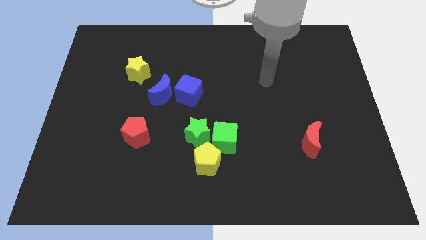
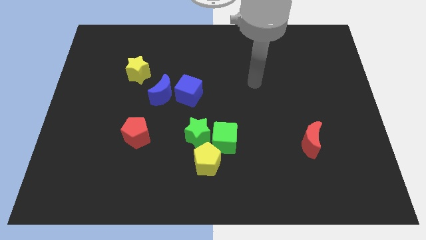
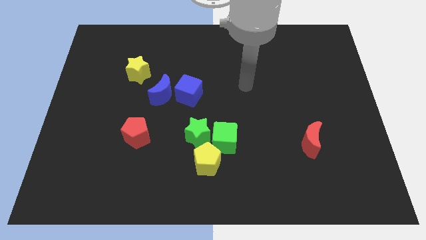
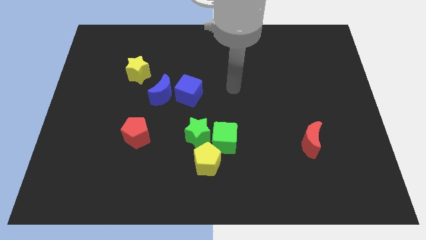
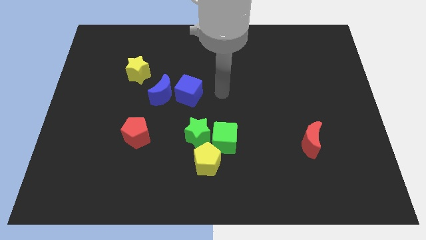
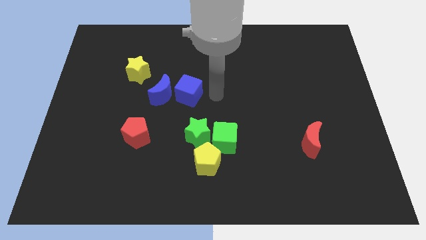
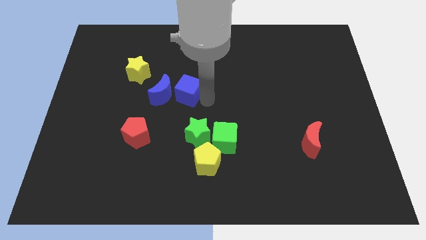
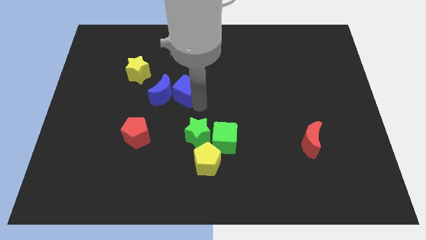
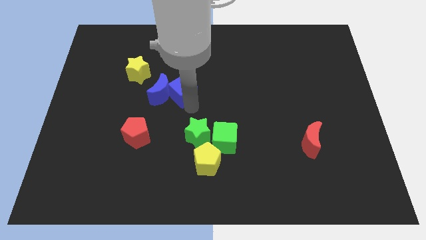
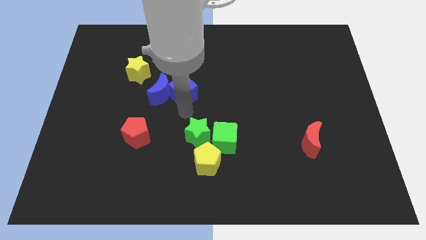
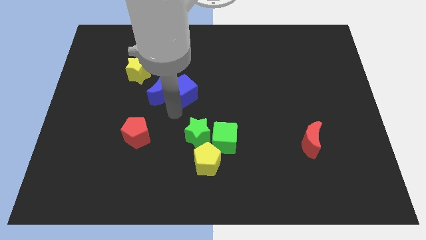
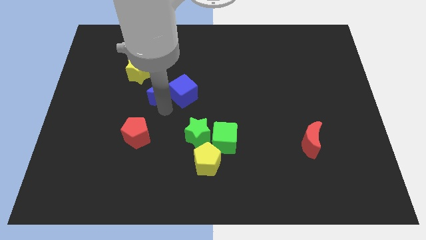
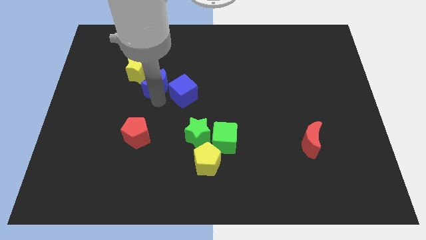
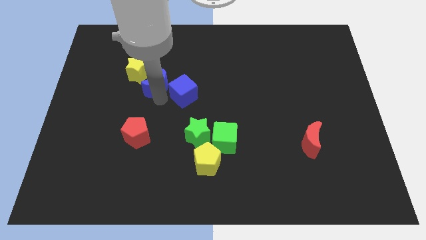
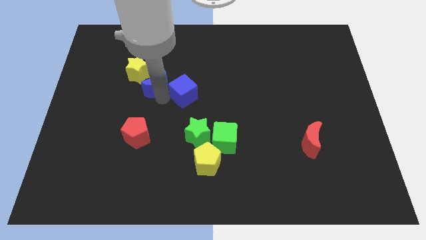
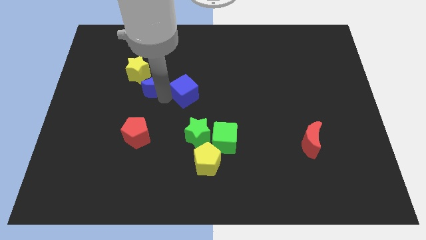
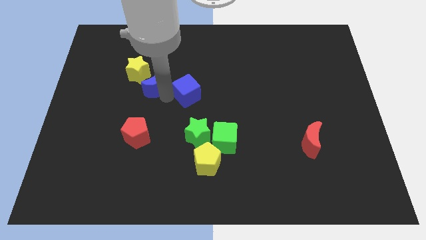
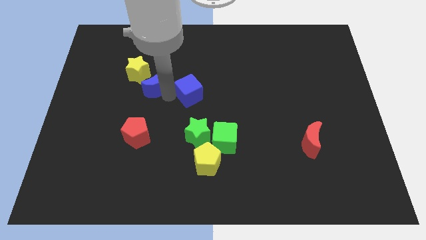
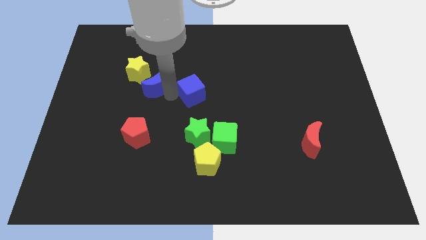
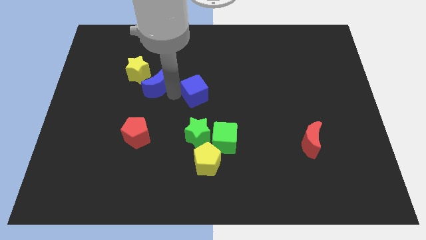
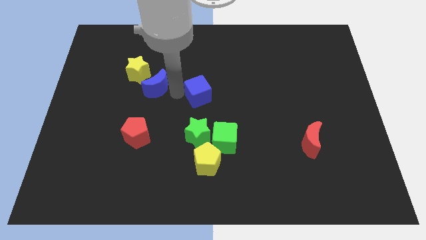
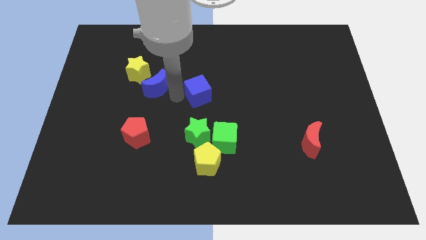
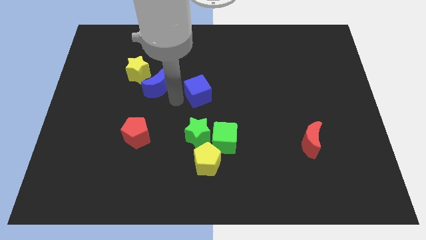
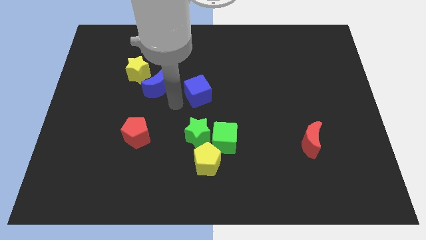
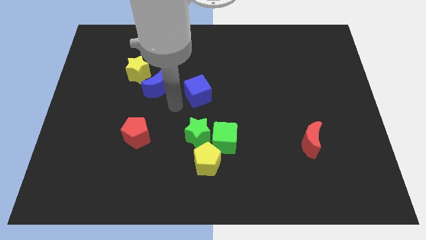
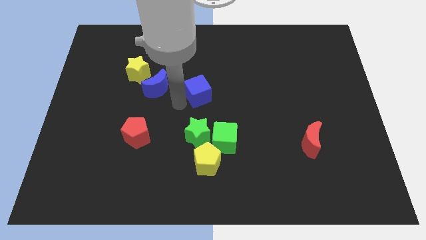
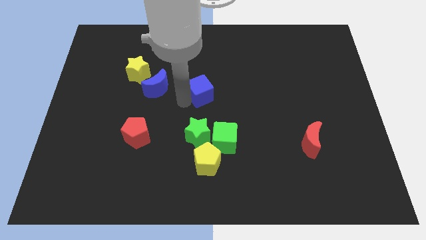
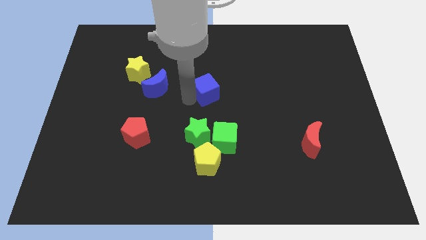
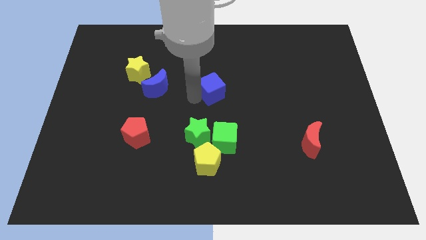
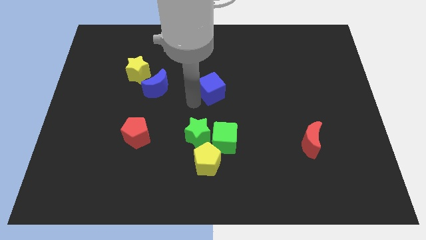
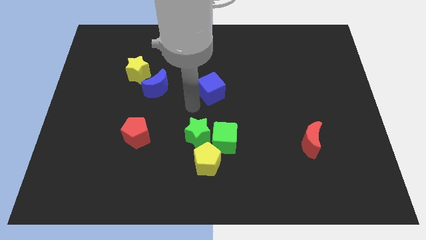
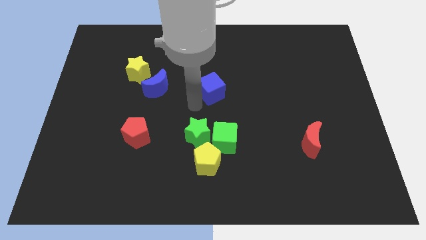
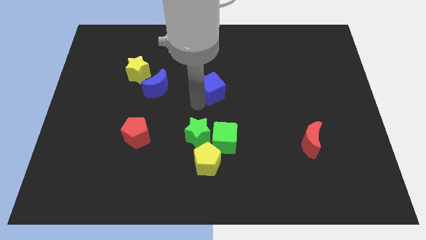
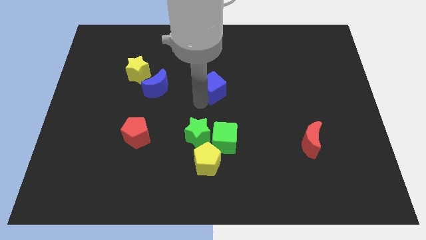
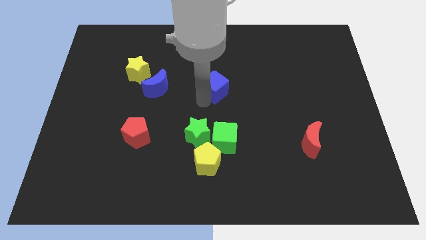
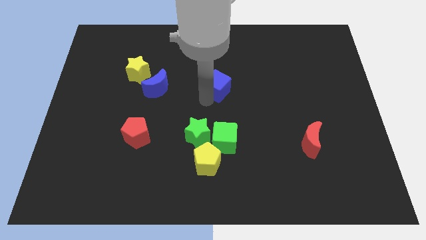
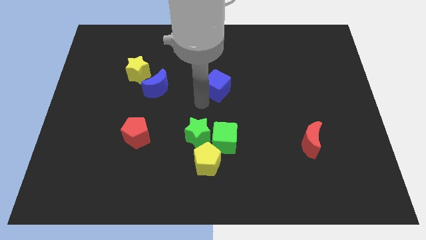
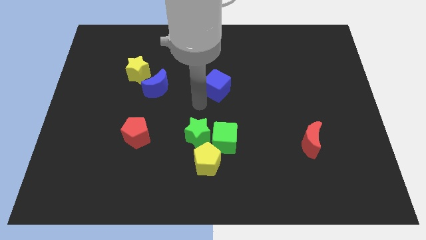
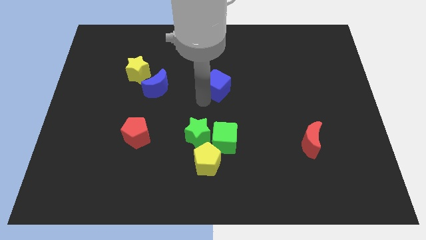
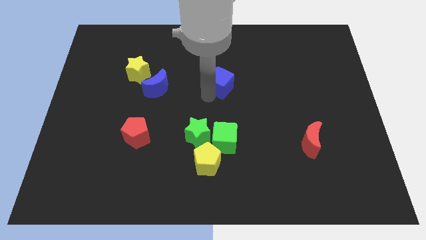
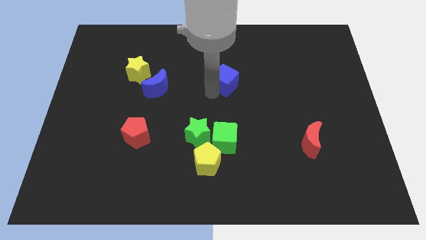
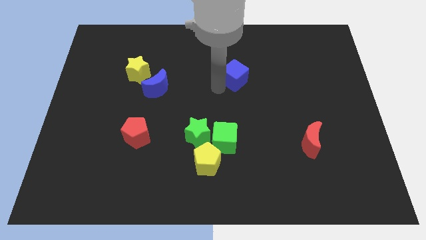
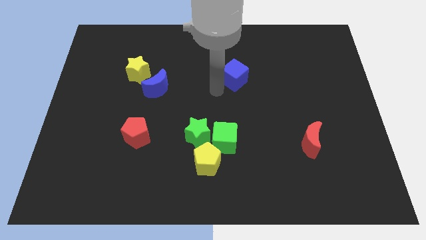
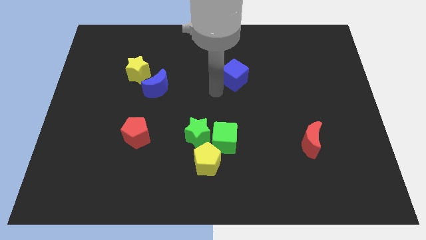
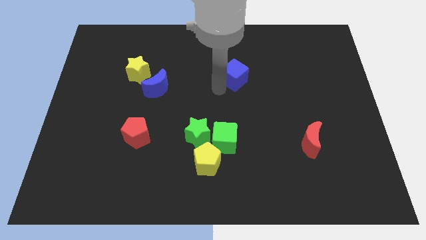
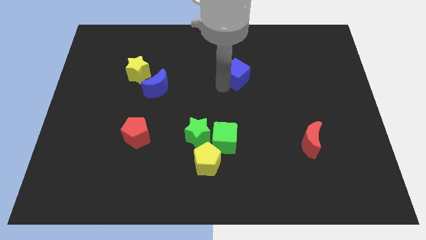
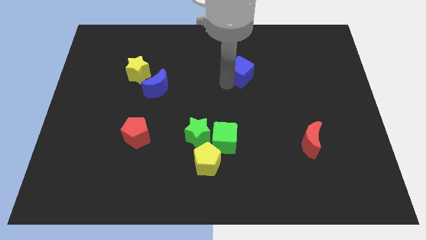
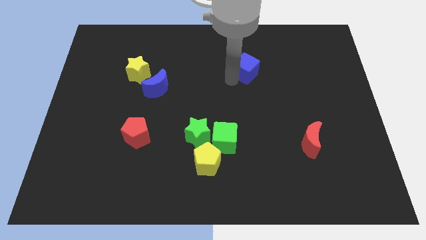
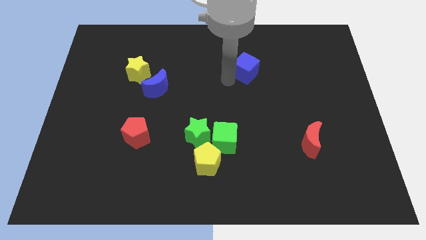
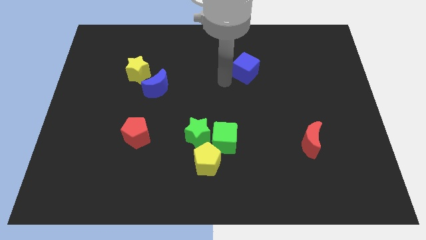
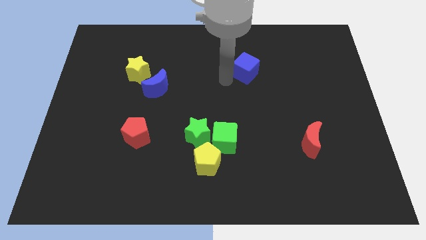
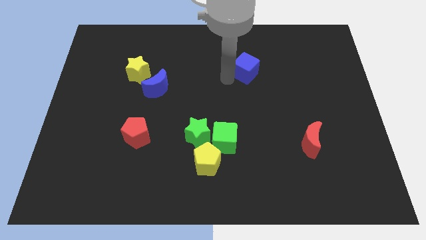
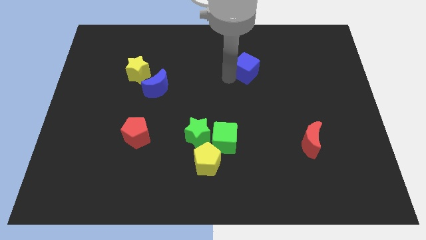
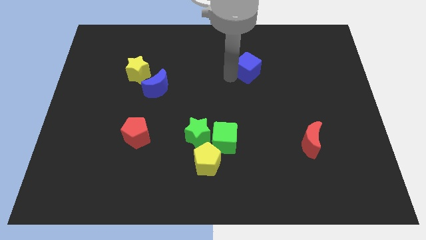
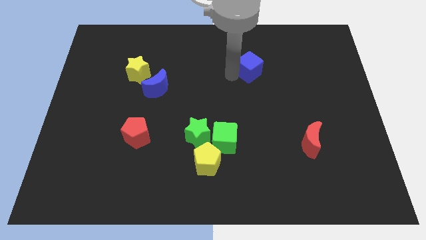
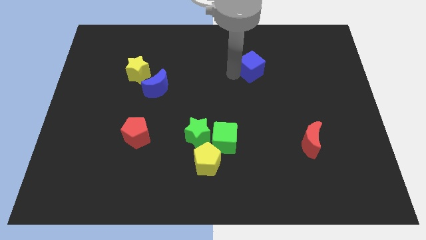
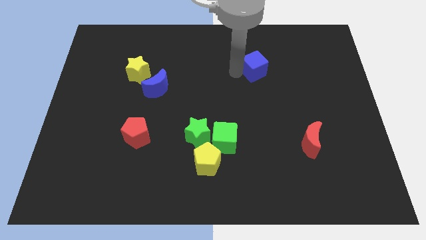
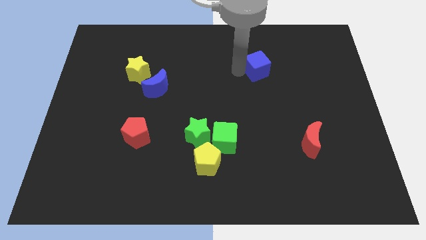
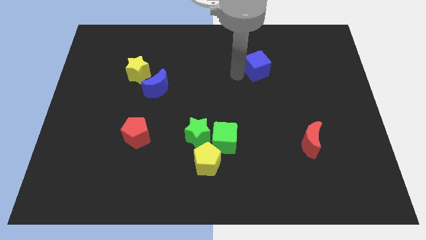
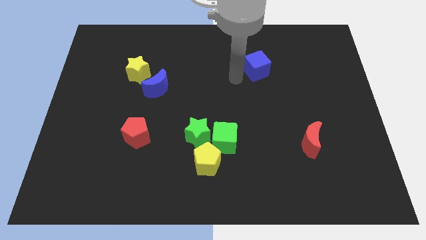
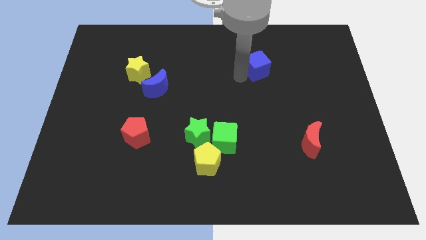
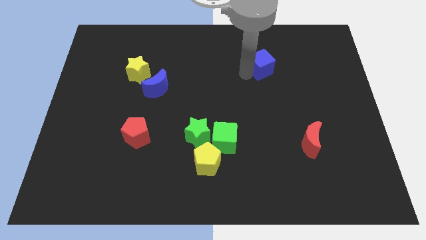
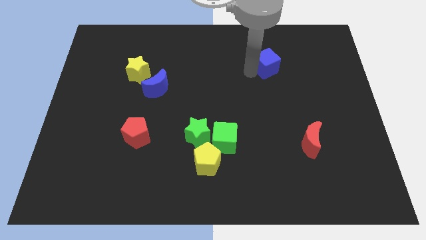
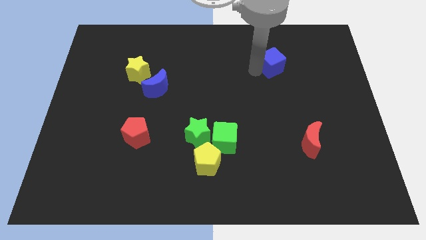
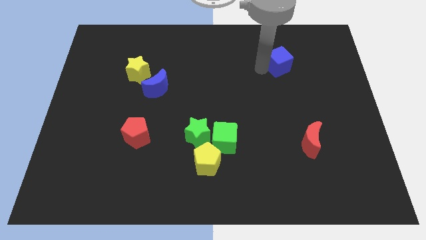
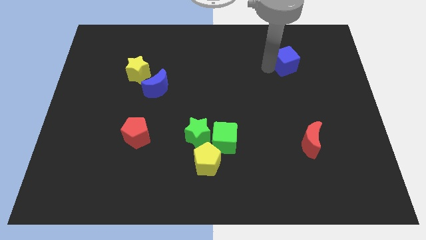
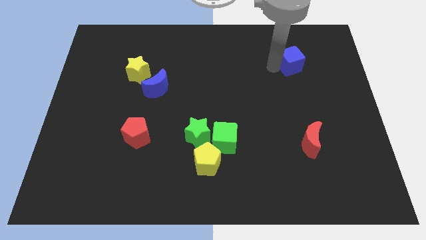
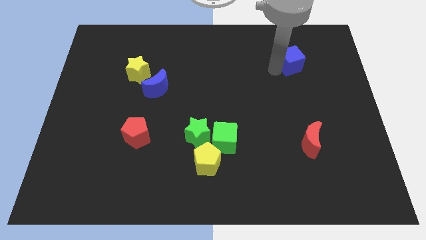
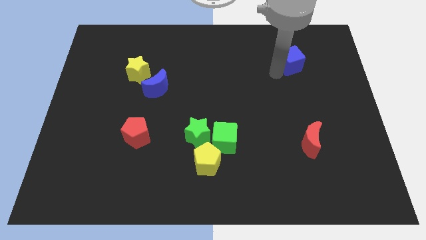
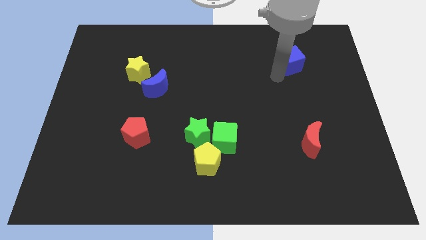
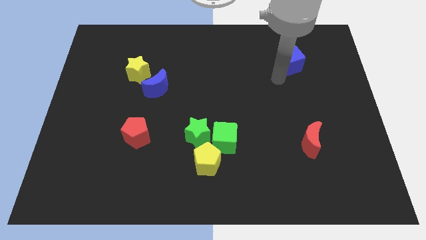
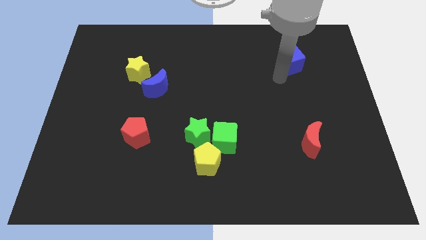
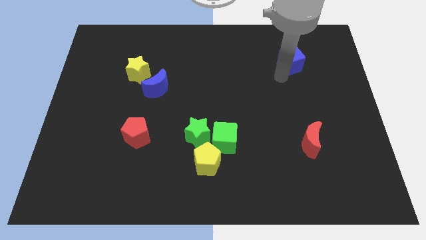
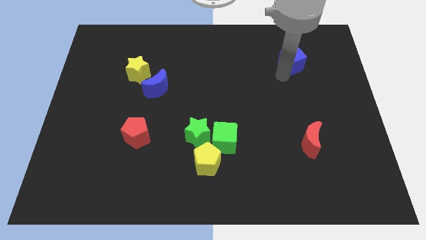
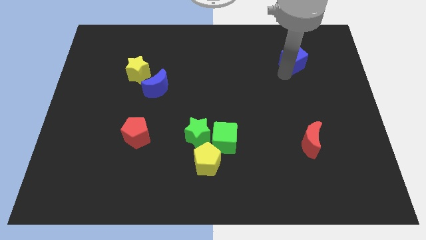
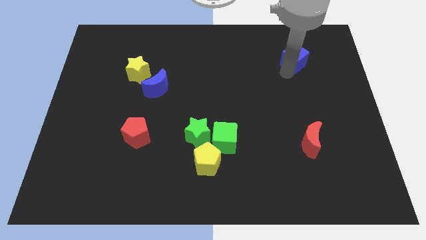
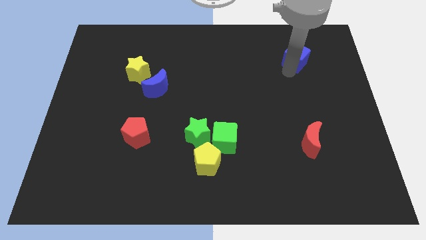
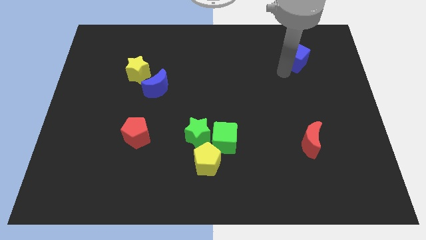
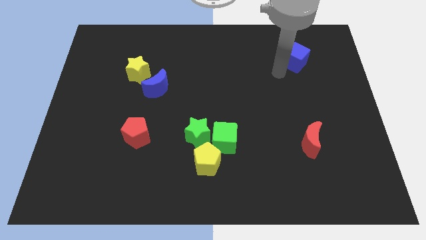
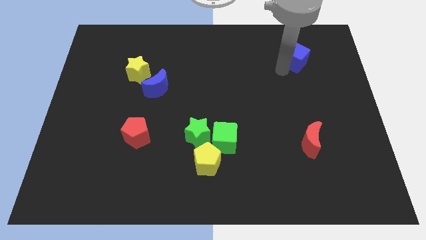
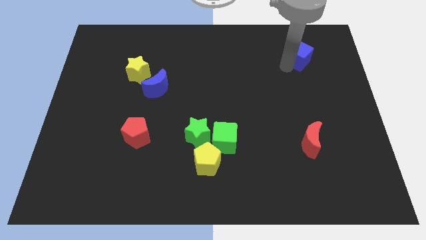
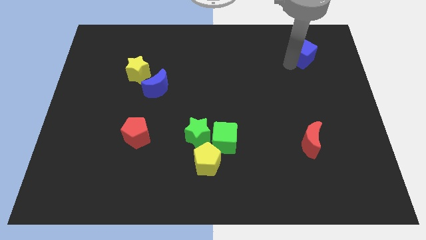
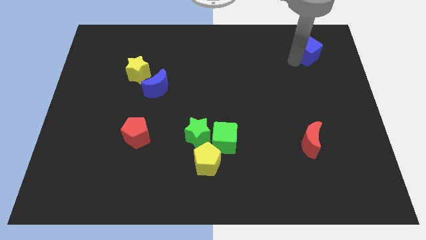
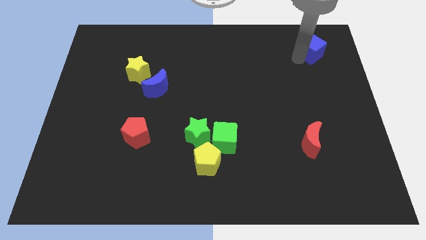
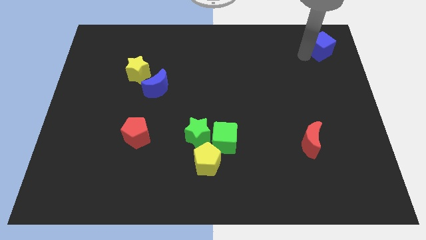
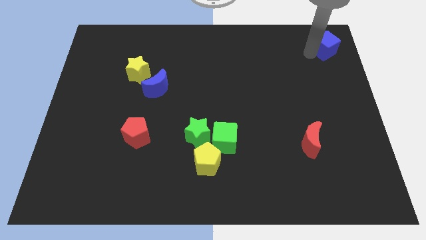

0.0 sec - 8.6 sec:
slide the blue cube to the top right corner
